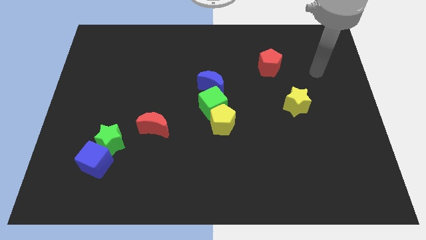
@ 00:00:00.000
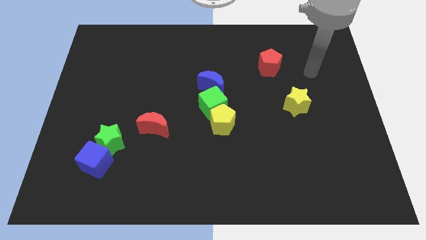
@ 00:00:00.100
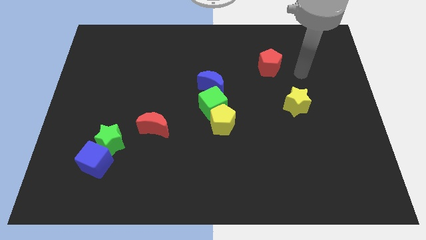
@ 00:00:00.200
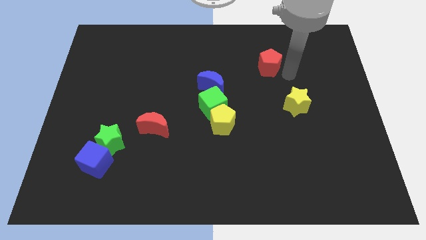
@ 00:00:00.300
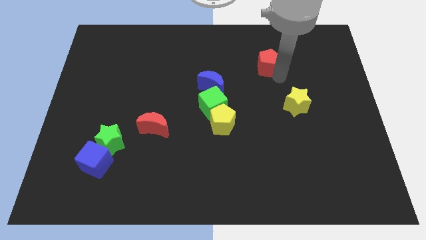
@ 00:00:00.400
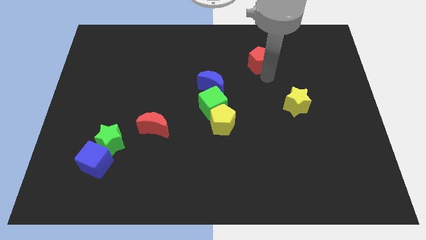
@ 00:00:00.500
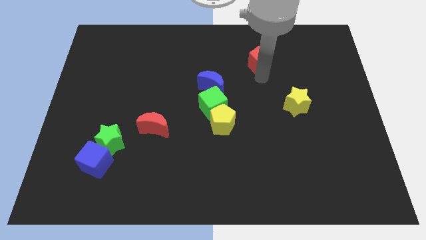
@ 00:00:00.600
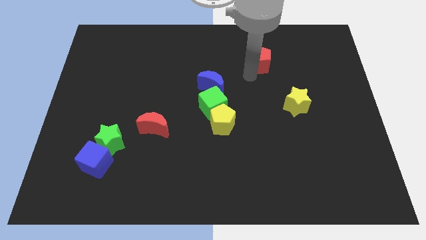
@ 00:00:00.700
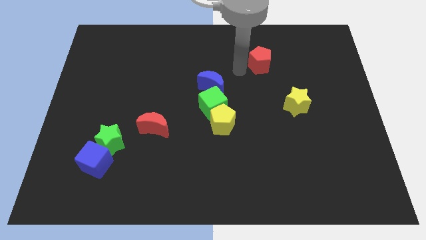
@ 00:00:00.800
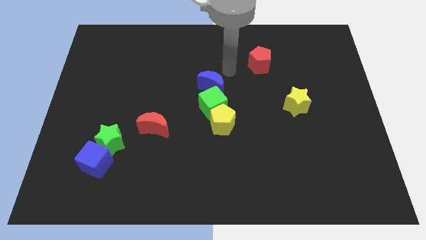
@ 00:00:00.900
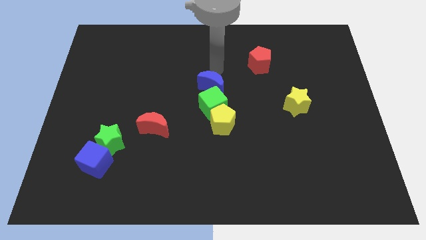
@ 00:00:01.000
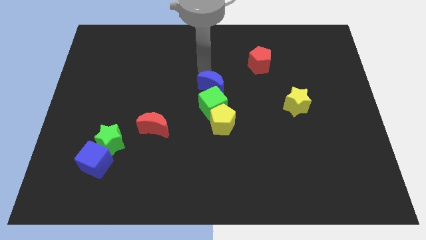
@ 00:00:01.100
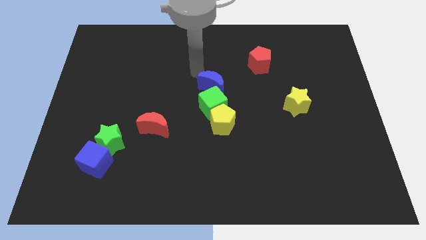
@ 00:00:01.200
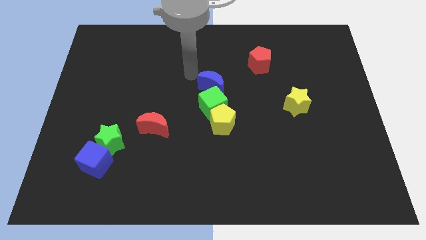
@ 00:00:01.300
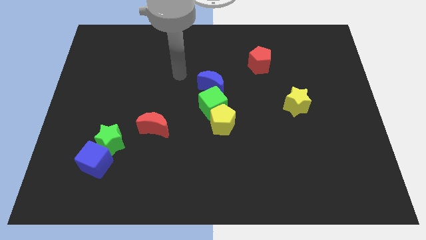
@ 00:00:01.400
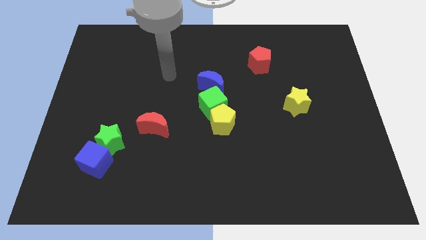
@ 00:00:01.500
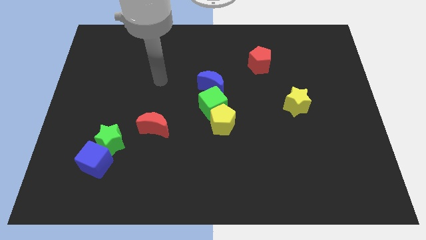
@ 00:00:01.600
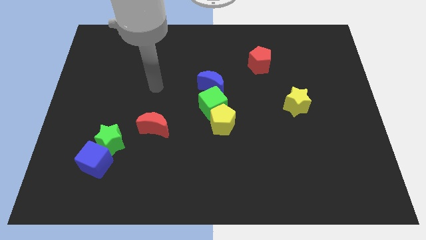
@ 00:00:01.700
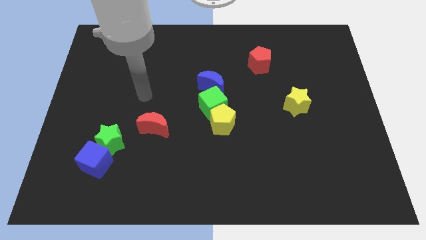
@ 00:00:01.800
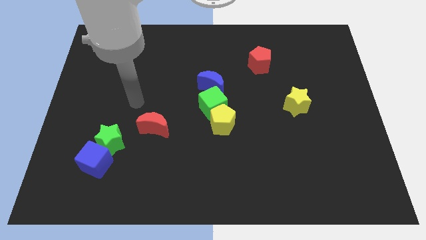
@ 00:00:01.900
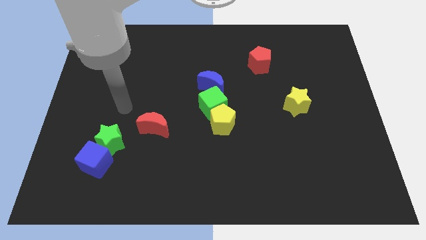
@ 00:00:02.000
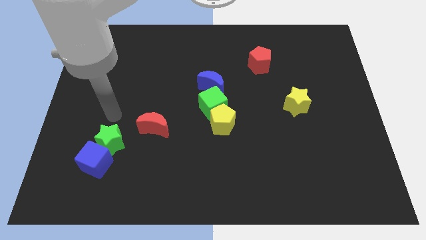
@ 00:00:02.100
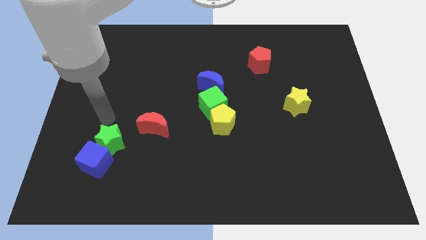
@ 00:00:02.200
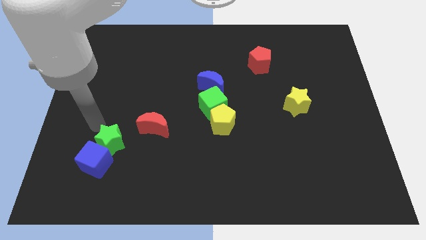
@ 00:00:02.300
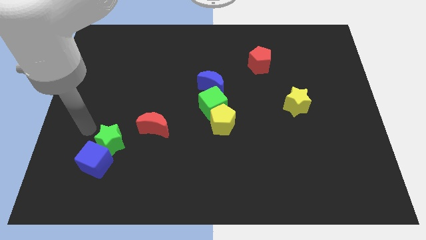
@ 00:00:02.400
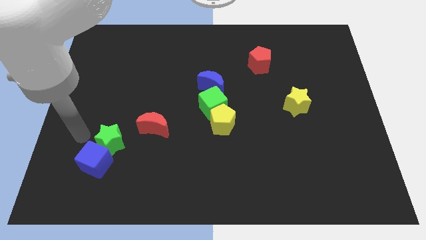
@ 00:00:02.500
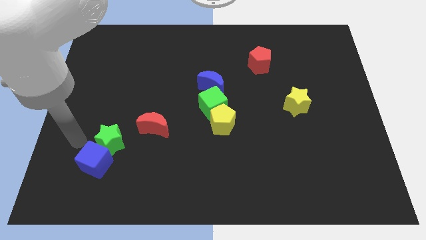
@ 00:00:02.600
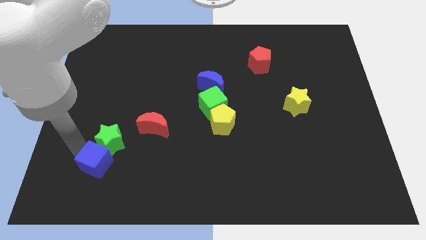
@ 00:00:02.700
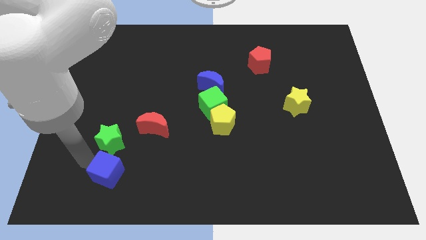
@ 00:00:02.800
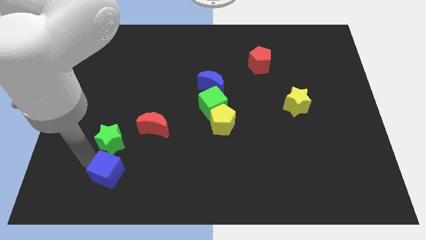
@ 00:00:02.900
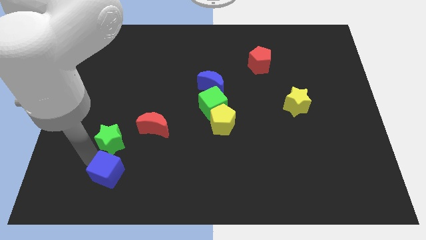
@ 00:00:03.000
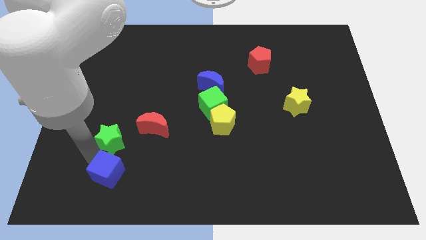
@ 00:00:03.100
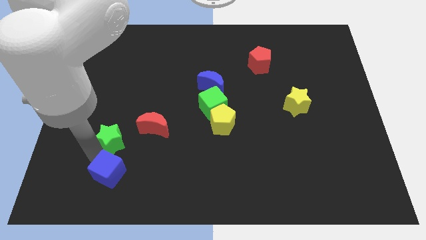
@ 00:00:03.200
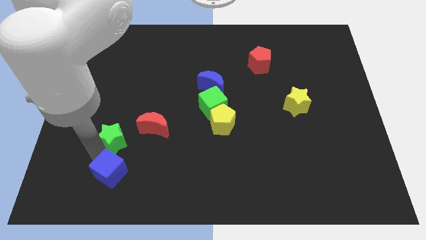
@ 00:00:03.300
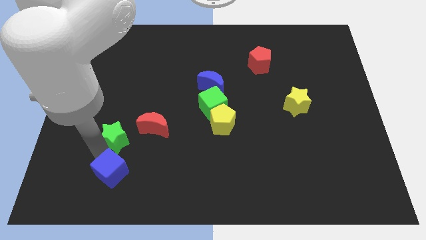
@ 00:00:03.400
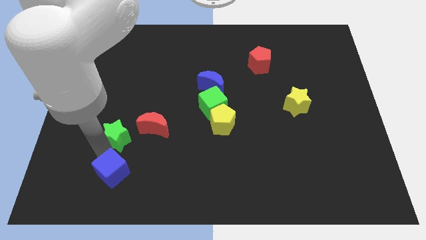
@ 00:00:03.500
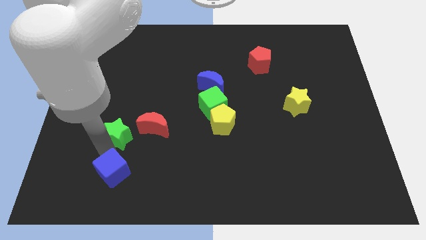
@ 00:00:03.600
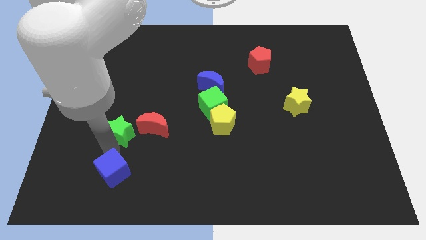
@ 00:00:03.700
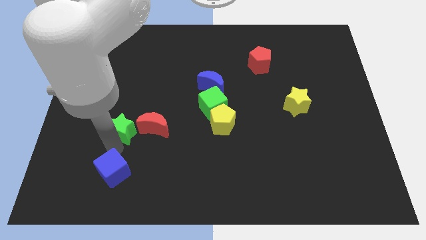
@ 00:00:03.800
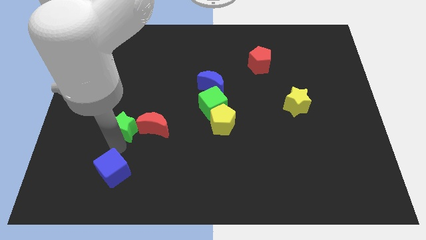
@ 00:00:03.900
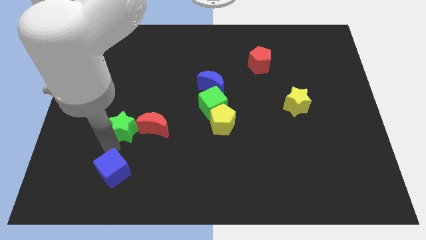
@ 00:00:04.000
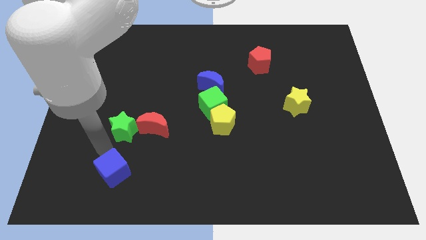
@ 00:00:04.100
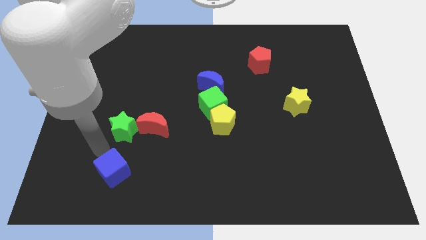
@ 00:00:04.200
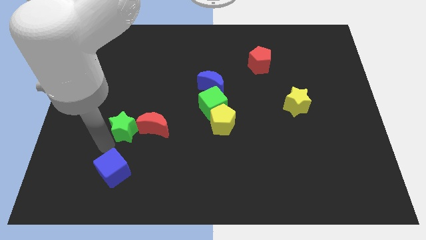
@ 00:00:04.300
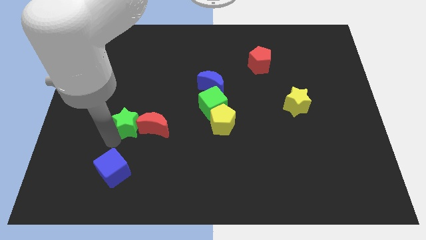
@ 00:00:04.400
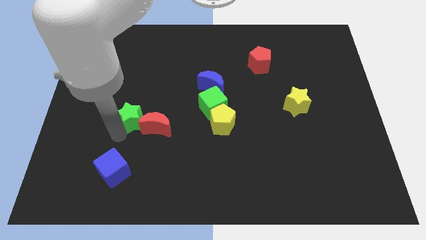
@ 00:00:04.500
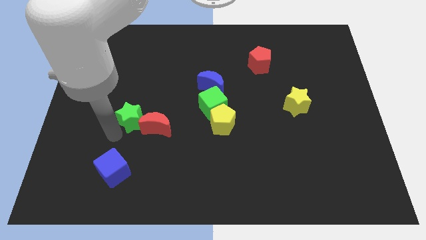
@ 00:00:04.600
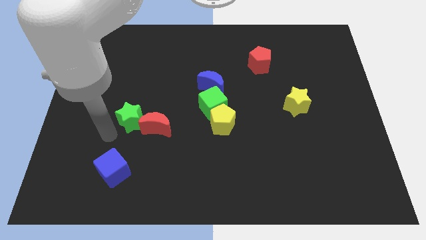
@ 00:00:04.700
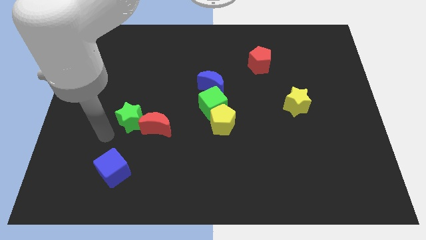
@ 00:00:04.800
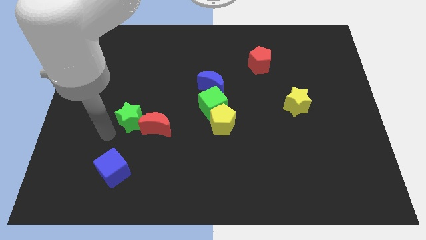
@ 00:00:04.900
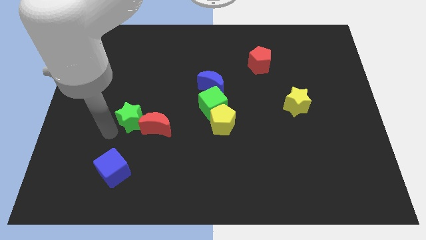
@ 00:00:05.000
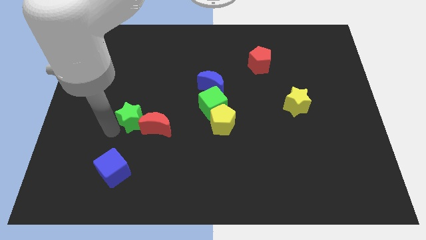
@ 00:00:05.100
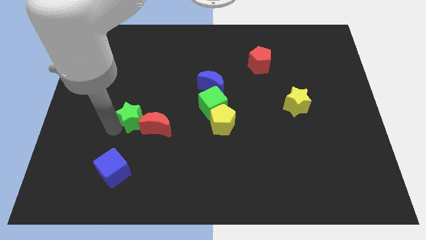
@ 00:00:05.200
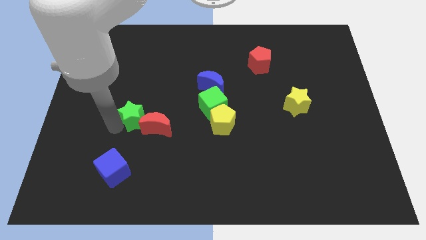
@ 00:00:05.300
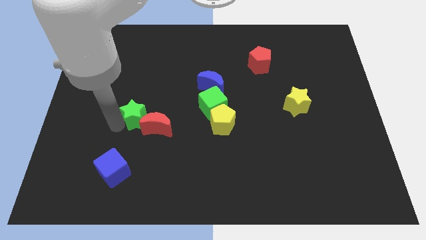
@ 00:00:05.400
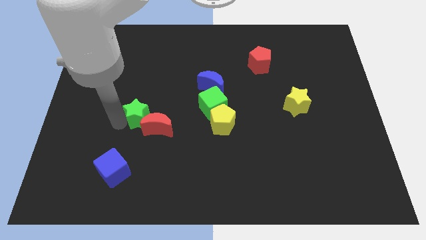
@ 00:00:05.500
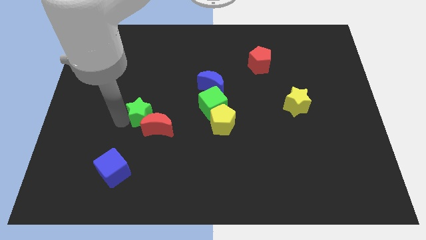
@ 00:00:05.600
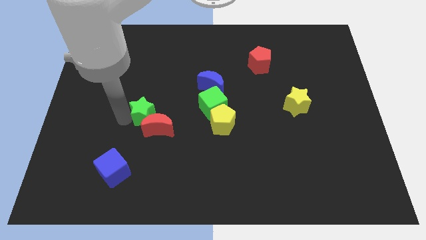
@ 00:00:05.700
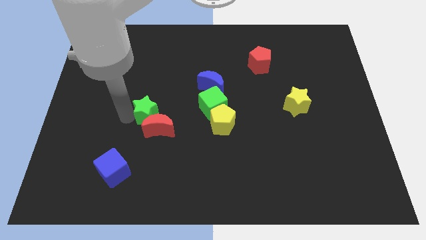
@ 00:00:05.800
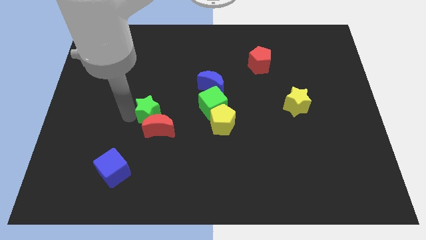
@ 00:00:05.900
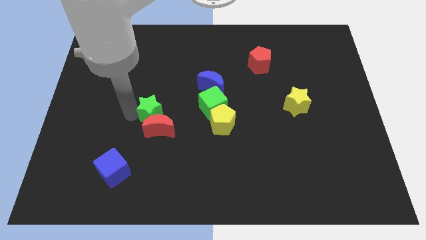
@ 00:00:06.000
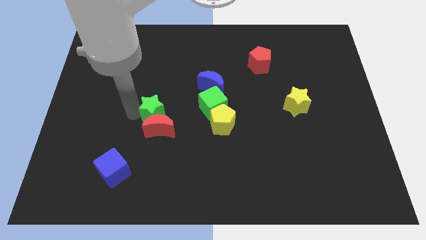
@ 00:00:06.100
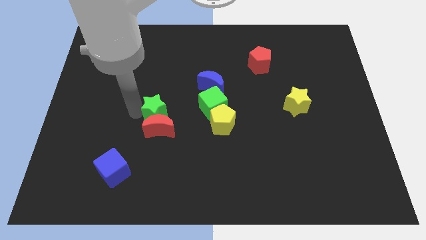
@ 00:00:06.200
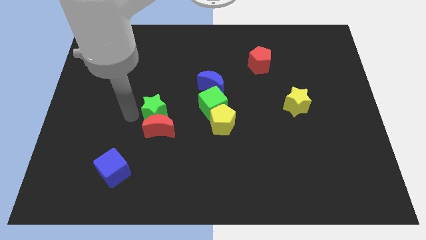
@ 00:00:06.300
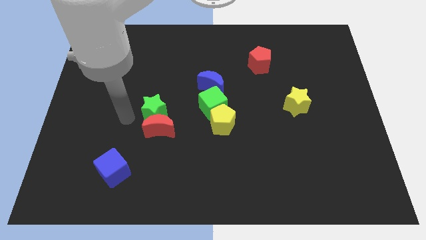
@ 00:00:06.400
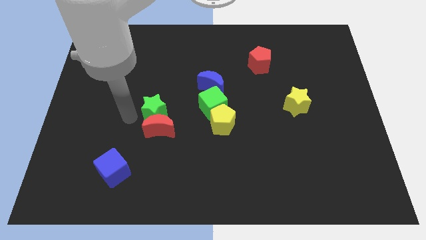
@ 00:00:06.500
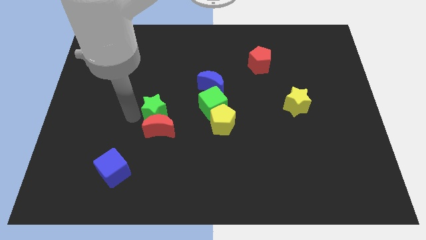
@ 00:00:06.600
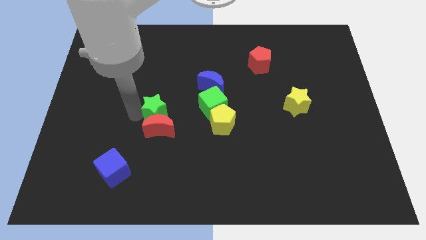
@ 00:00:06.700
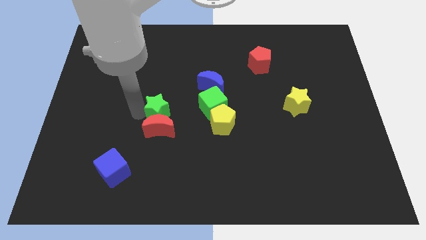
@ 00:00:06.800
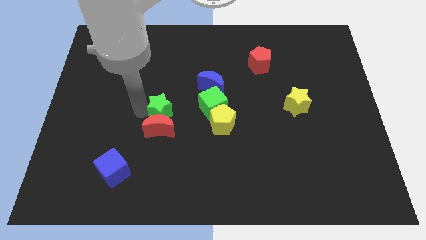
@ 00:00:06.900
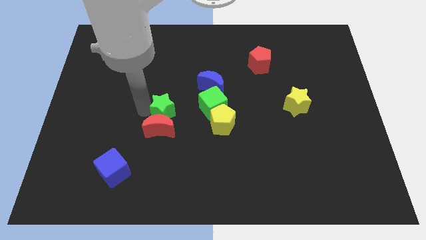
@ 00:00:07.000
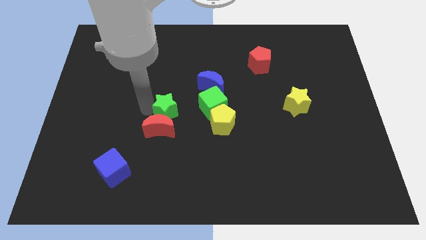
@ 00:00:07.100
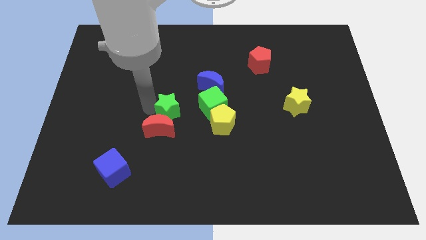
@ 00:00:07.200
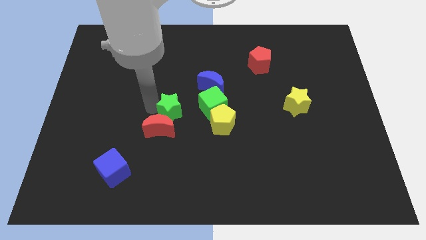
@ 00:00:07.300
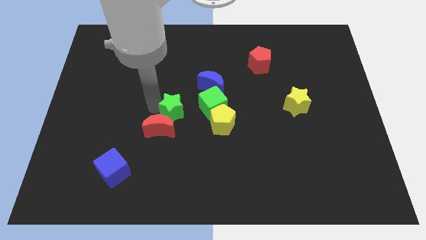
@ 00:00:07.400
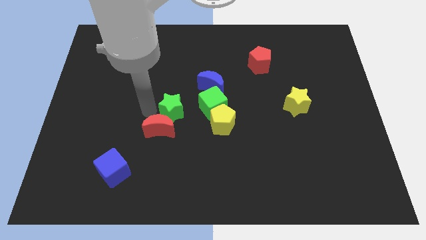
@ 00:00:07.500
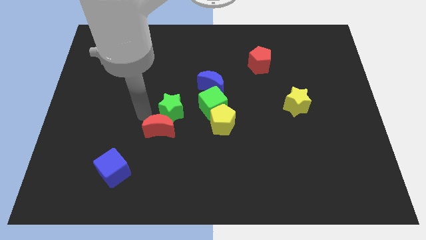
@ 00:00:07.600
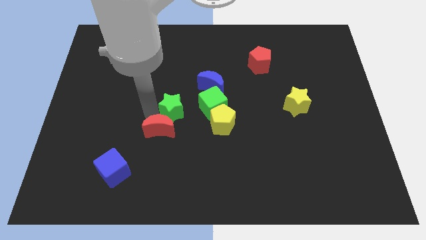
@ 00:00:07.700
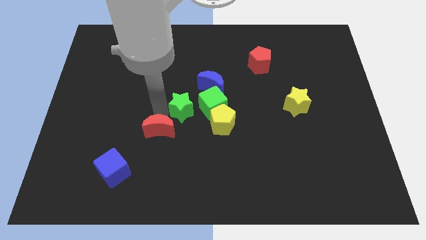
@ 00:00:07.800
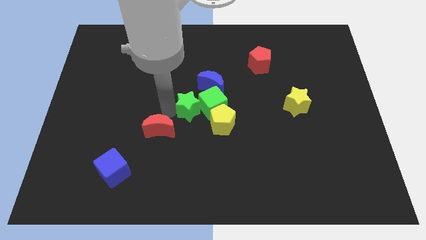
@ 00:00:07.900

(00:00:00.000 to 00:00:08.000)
move the green star next to the green cube
